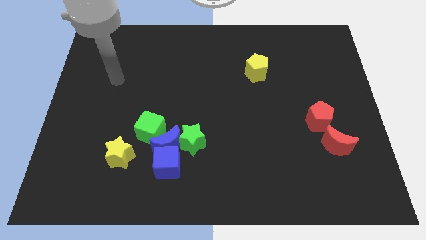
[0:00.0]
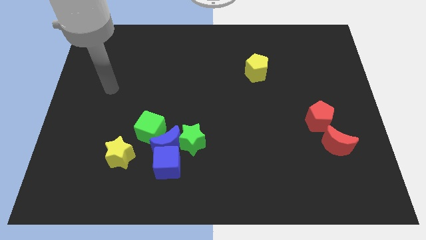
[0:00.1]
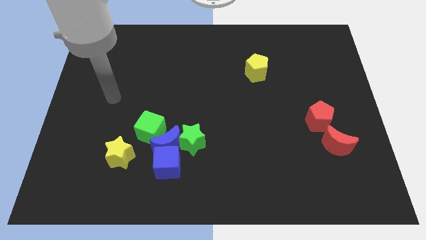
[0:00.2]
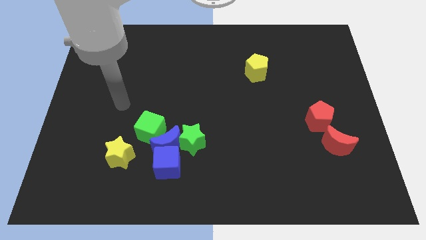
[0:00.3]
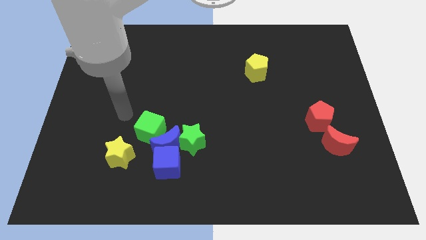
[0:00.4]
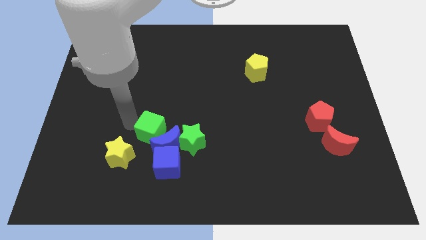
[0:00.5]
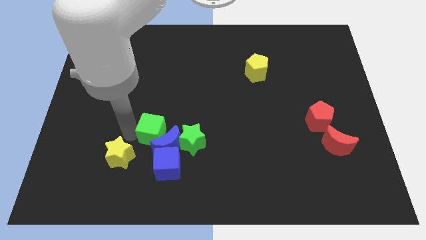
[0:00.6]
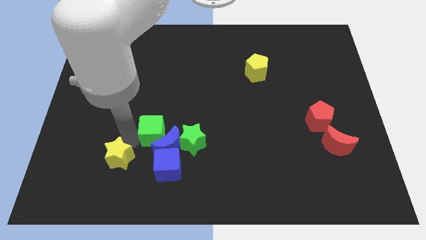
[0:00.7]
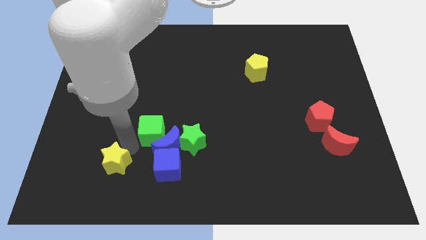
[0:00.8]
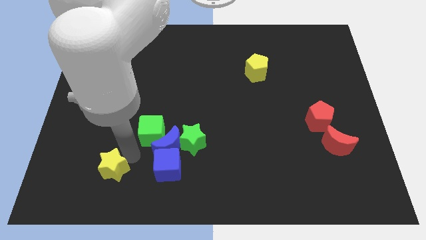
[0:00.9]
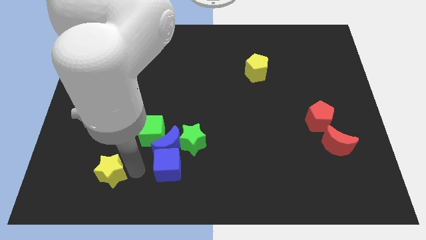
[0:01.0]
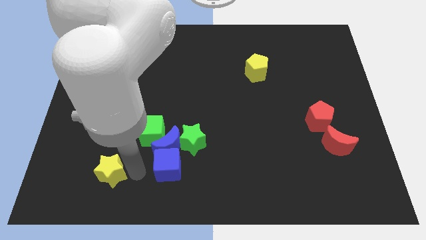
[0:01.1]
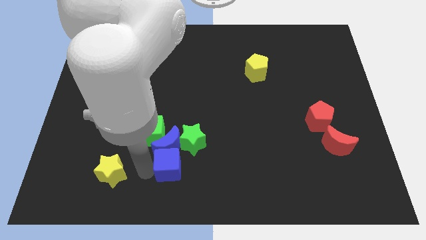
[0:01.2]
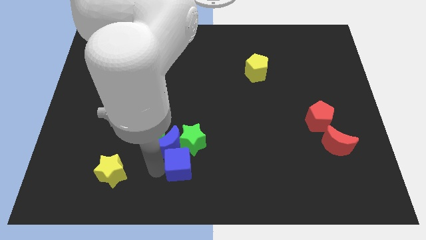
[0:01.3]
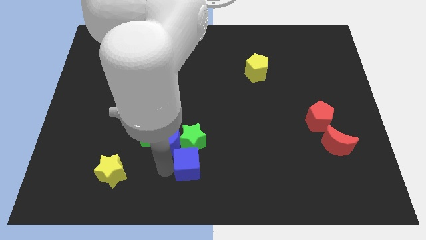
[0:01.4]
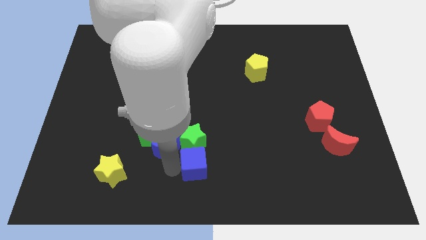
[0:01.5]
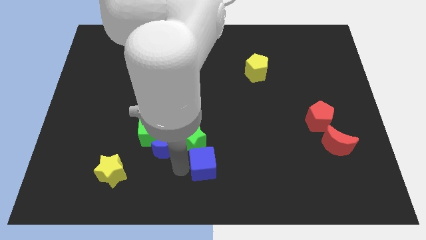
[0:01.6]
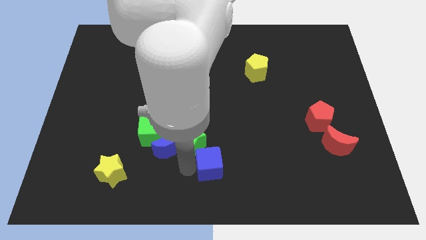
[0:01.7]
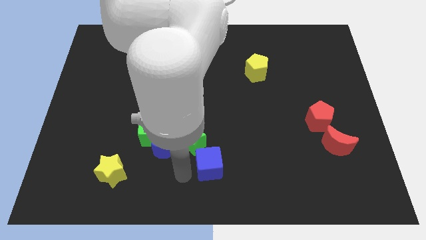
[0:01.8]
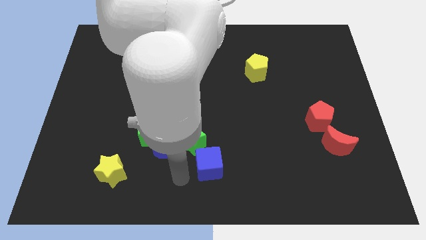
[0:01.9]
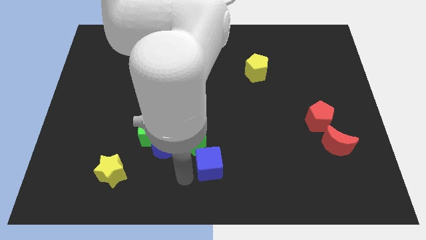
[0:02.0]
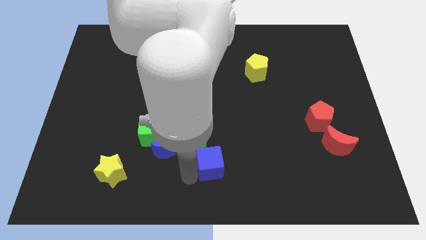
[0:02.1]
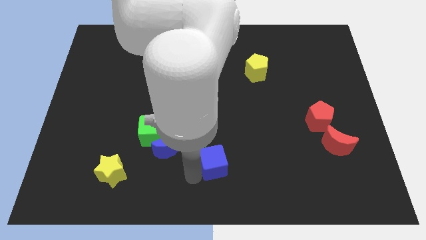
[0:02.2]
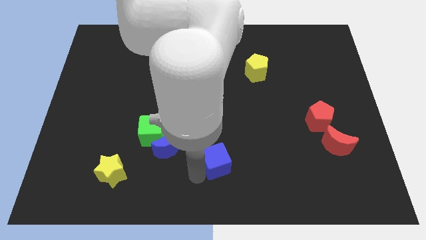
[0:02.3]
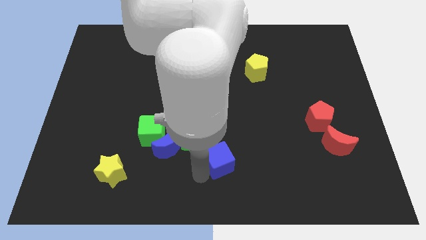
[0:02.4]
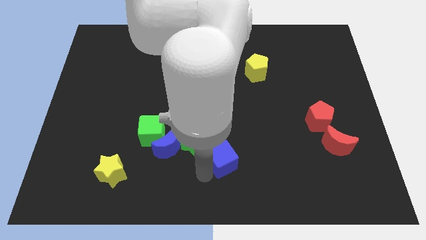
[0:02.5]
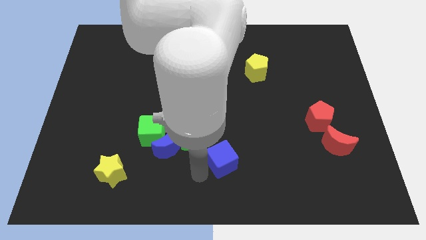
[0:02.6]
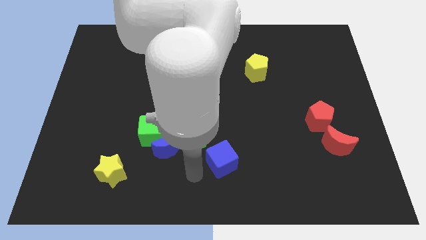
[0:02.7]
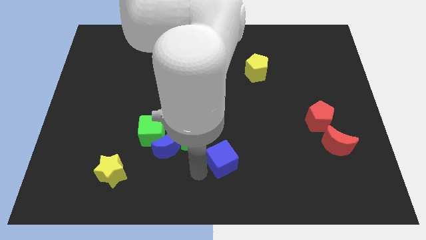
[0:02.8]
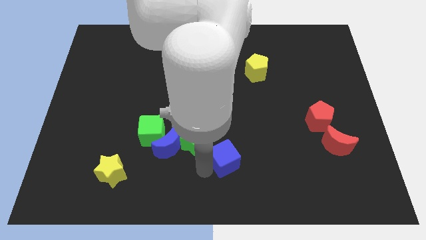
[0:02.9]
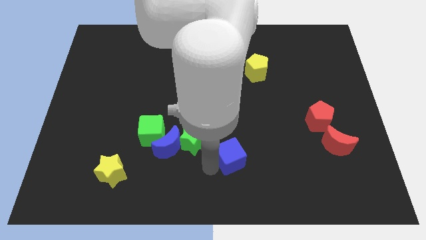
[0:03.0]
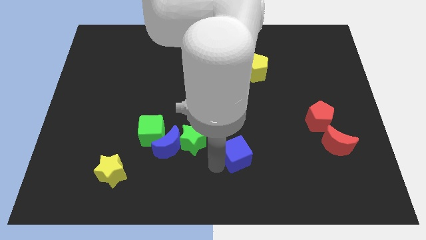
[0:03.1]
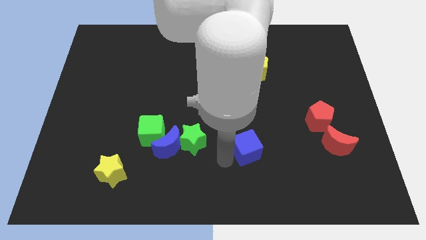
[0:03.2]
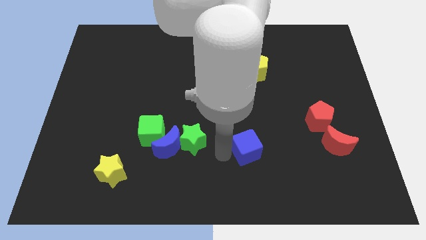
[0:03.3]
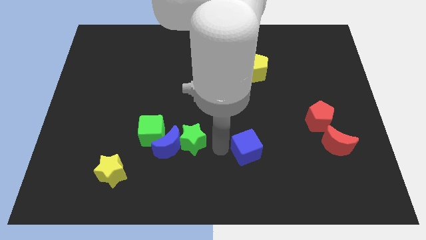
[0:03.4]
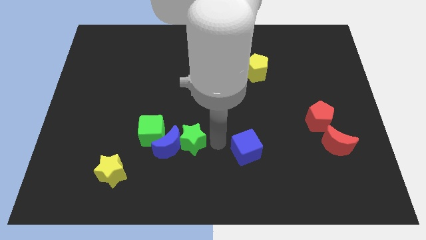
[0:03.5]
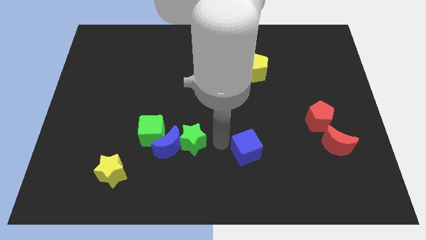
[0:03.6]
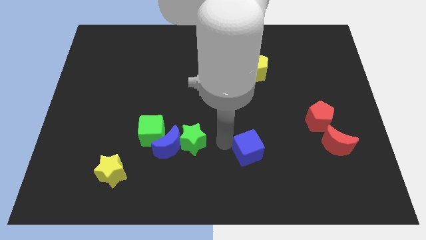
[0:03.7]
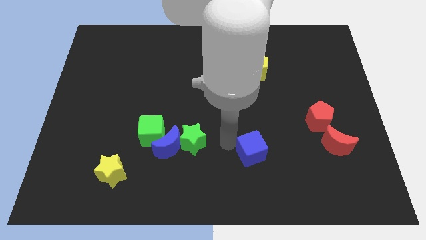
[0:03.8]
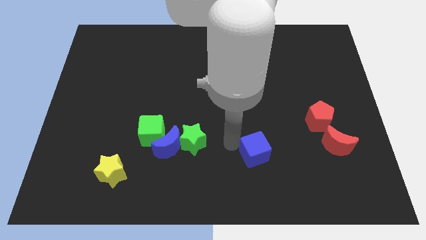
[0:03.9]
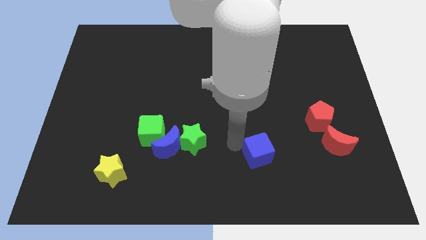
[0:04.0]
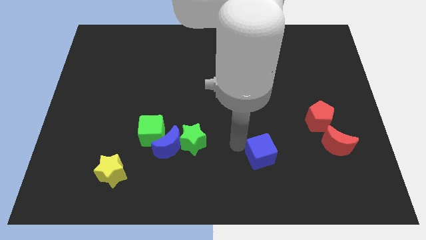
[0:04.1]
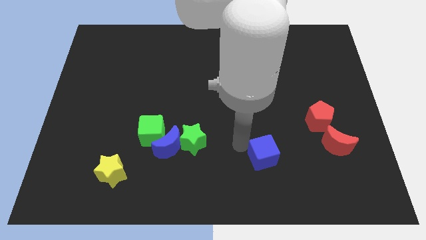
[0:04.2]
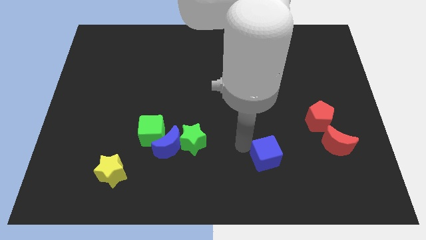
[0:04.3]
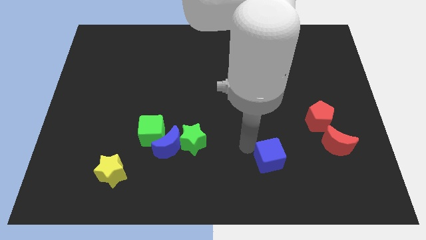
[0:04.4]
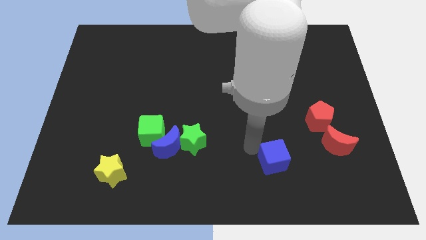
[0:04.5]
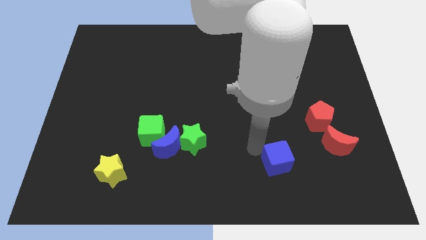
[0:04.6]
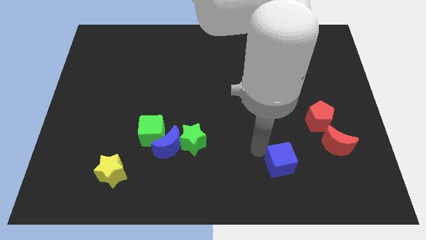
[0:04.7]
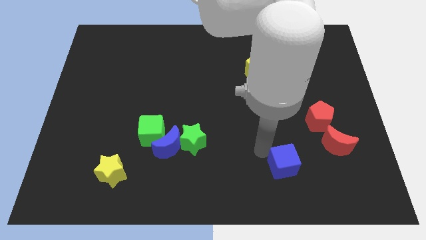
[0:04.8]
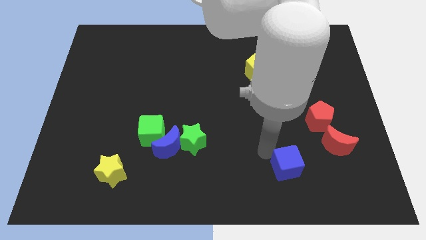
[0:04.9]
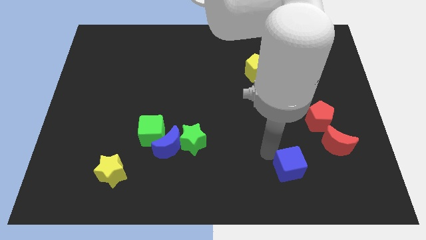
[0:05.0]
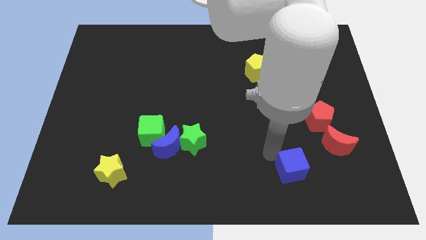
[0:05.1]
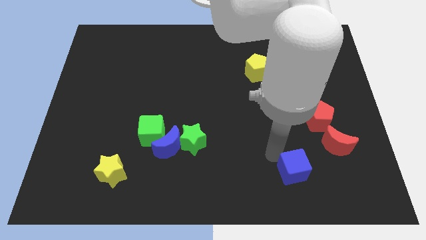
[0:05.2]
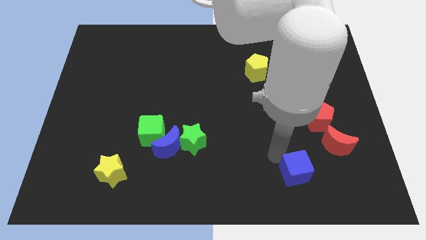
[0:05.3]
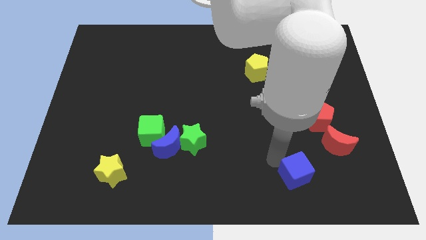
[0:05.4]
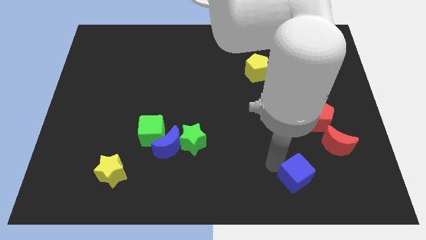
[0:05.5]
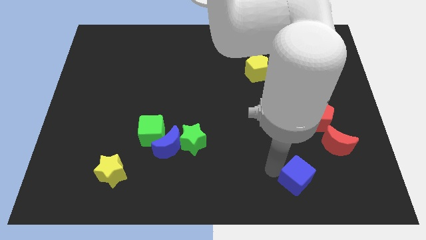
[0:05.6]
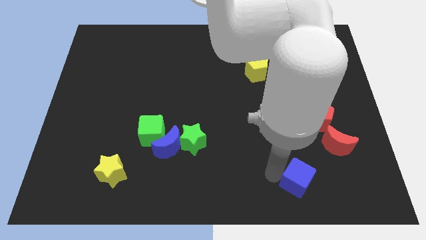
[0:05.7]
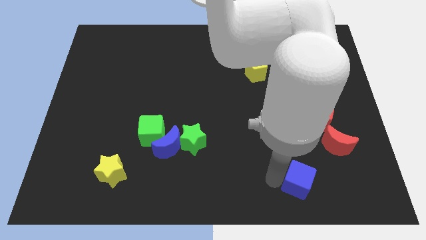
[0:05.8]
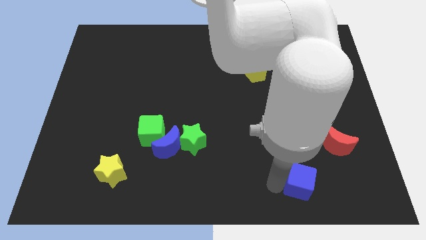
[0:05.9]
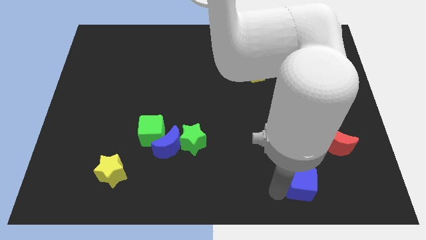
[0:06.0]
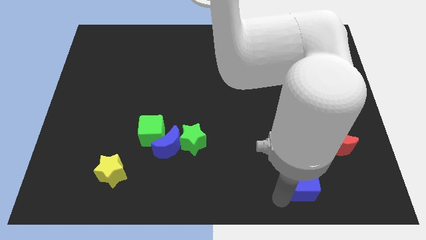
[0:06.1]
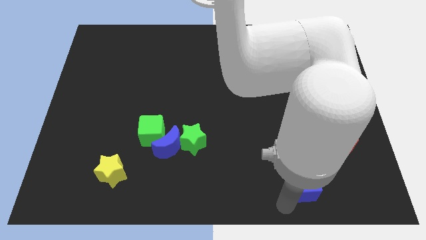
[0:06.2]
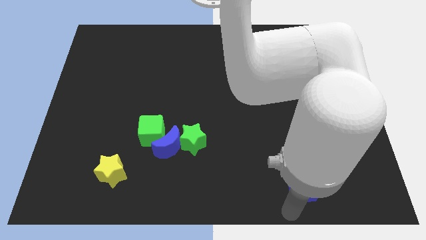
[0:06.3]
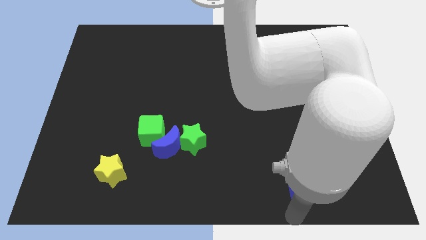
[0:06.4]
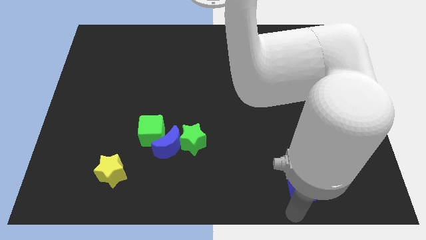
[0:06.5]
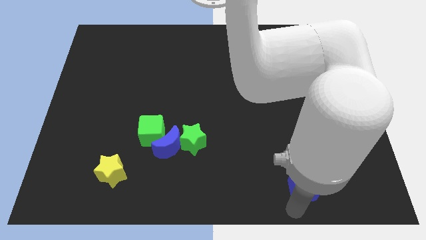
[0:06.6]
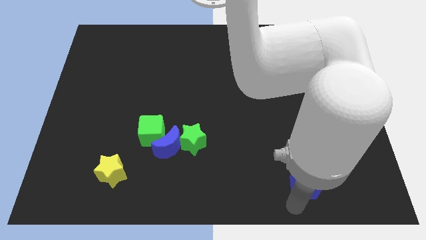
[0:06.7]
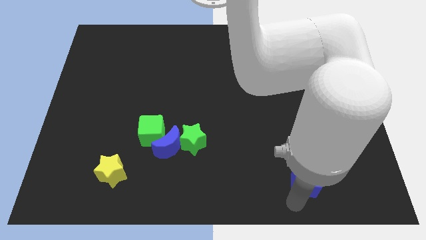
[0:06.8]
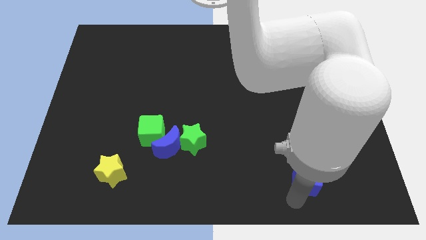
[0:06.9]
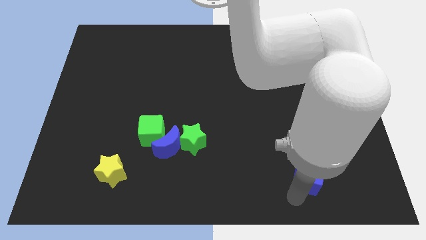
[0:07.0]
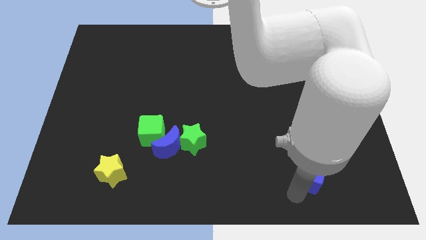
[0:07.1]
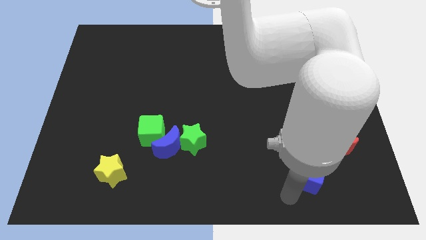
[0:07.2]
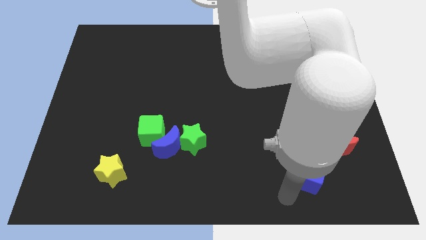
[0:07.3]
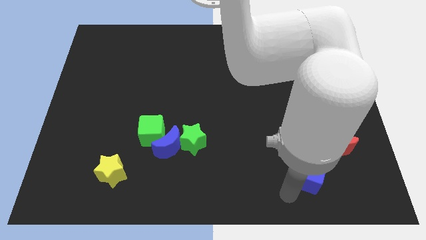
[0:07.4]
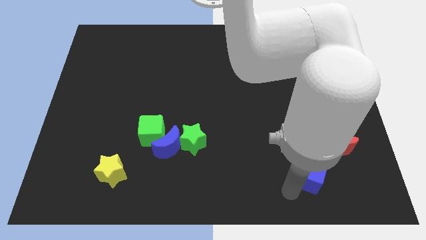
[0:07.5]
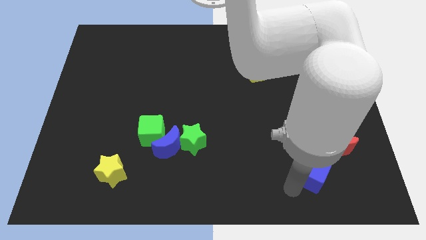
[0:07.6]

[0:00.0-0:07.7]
put the blue cube below the red pentagon
